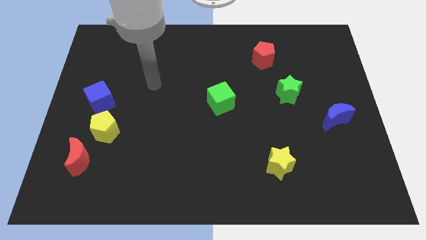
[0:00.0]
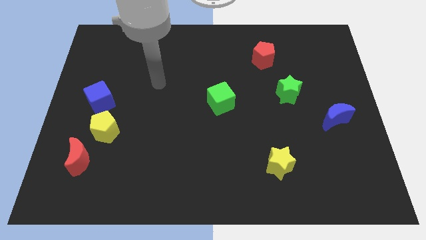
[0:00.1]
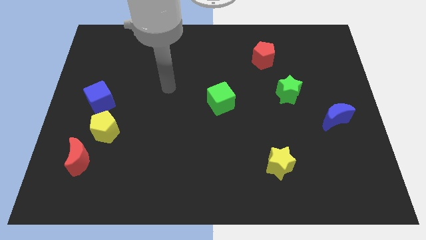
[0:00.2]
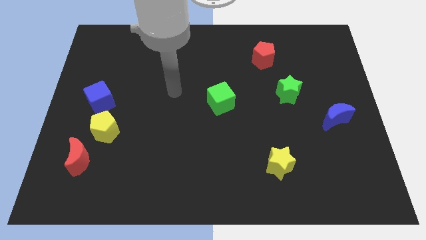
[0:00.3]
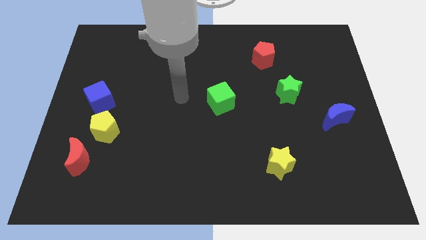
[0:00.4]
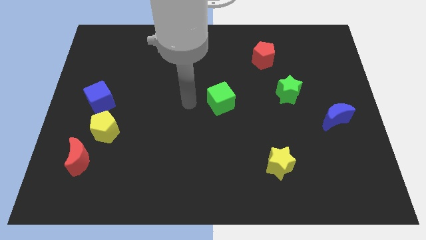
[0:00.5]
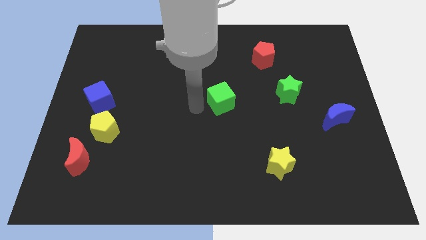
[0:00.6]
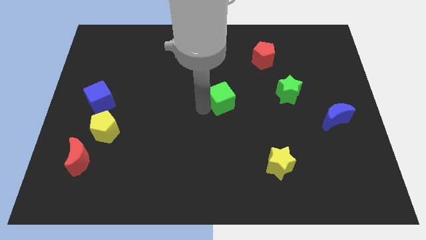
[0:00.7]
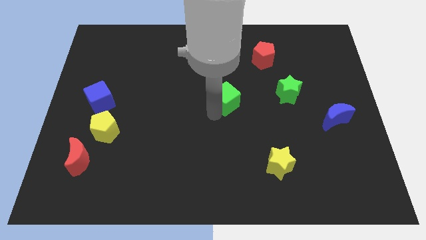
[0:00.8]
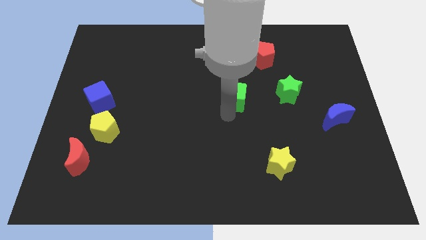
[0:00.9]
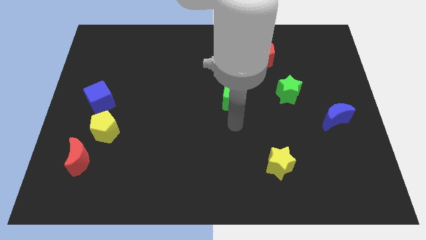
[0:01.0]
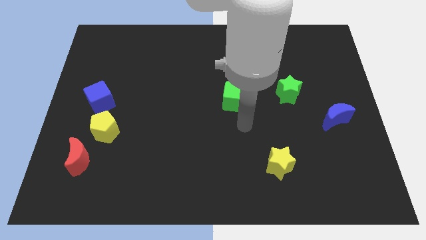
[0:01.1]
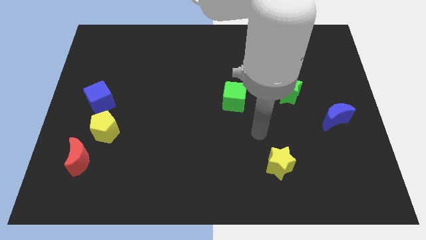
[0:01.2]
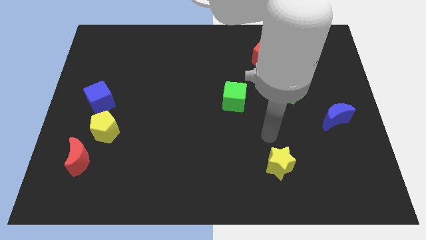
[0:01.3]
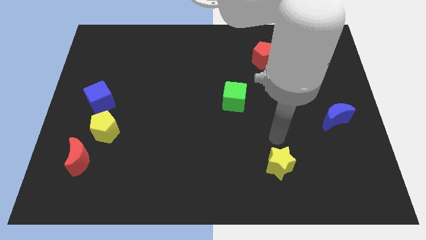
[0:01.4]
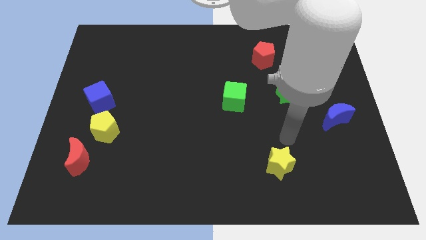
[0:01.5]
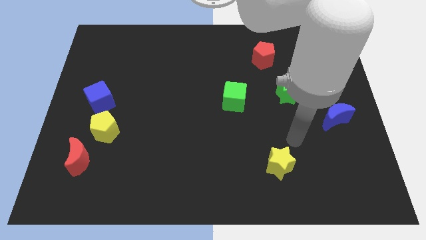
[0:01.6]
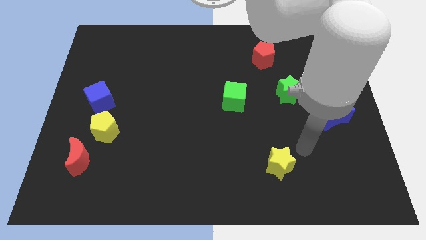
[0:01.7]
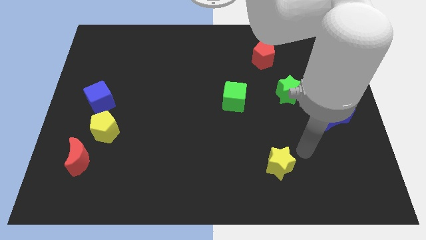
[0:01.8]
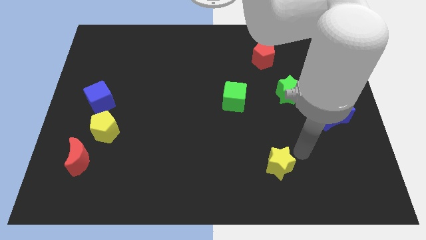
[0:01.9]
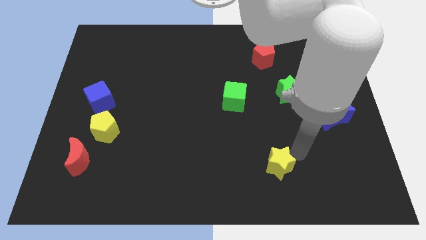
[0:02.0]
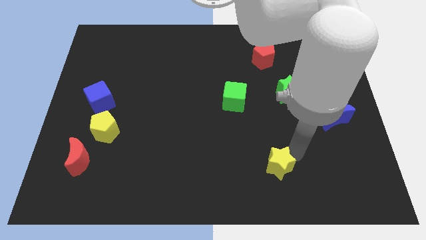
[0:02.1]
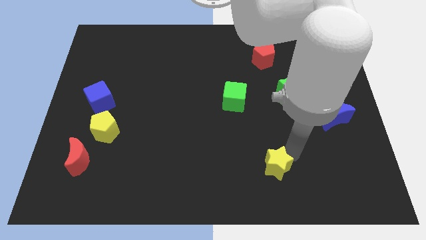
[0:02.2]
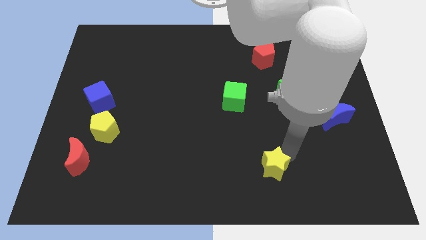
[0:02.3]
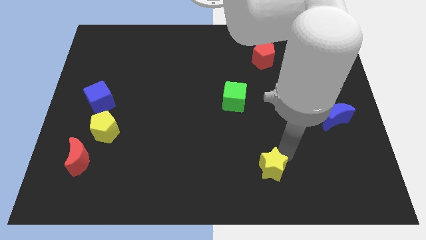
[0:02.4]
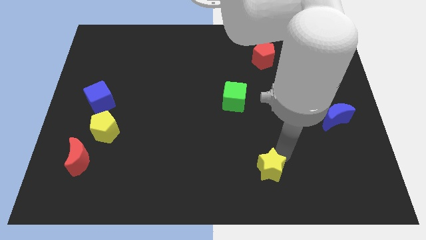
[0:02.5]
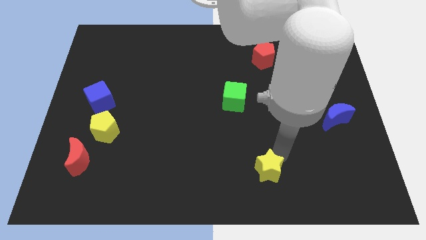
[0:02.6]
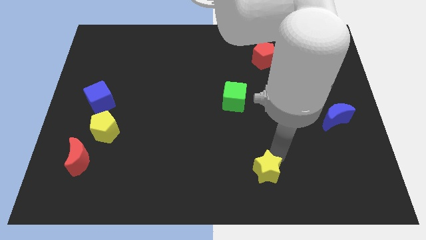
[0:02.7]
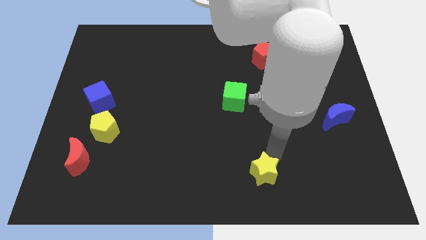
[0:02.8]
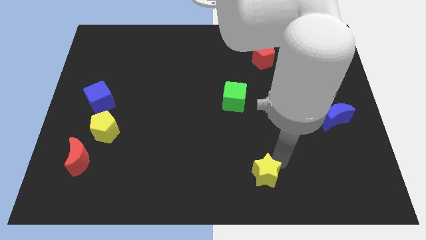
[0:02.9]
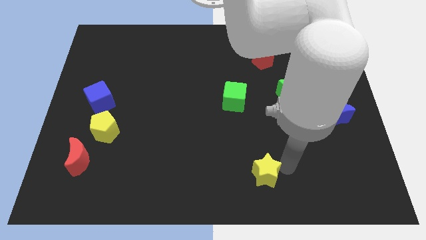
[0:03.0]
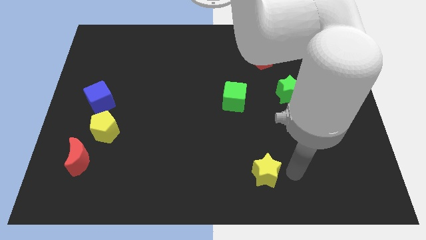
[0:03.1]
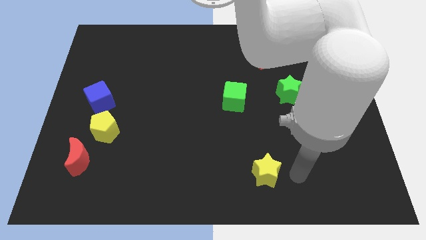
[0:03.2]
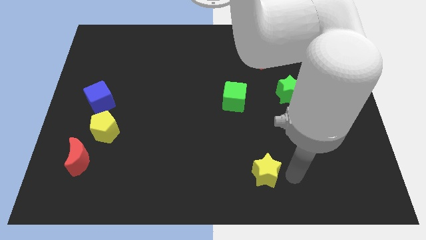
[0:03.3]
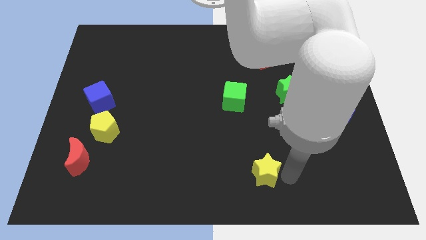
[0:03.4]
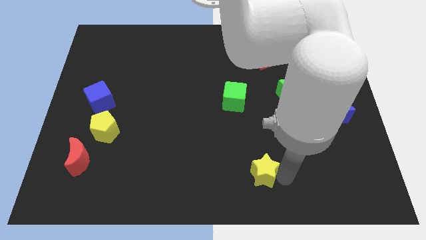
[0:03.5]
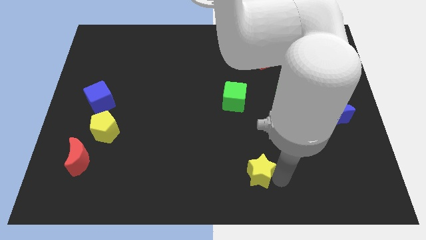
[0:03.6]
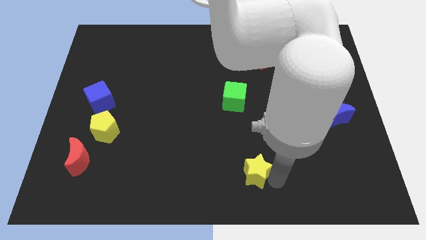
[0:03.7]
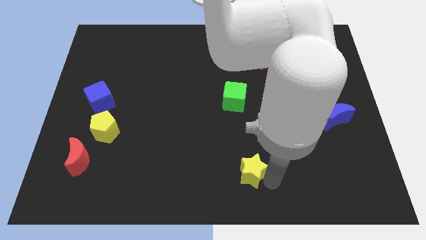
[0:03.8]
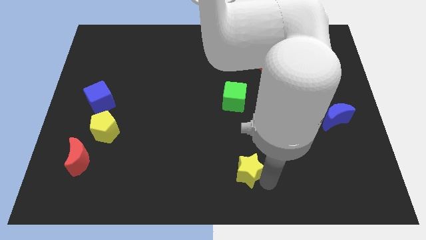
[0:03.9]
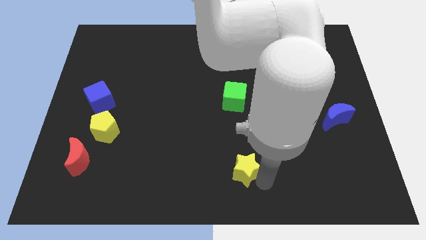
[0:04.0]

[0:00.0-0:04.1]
move the yellow star left somewhat

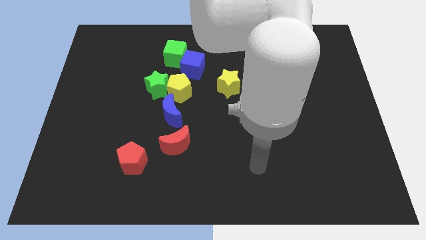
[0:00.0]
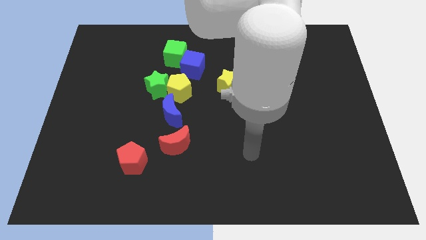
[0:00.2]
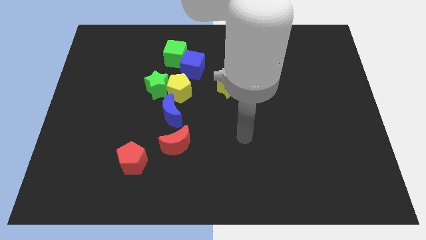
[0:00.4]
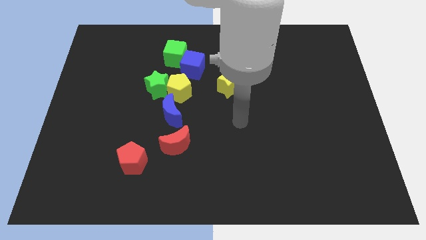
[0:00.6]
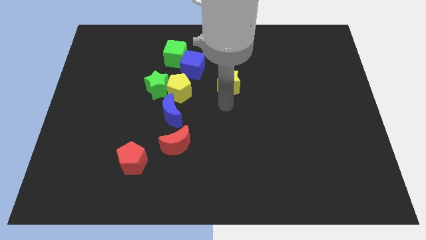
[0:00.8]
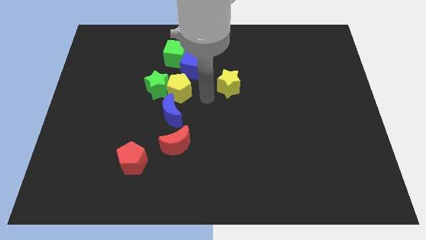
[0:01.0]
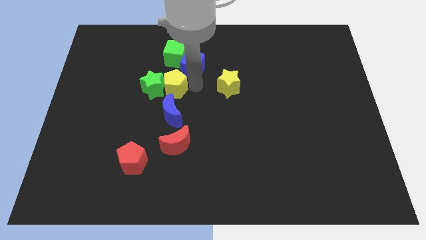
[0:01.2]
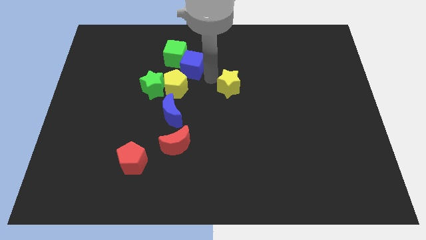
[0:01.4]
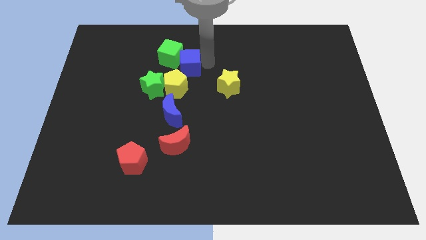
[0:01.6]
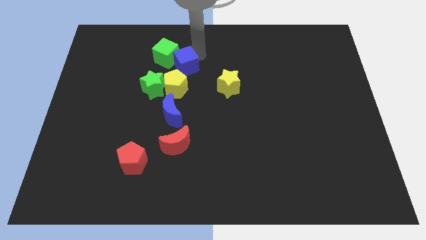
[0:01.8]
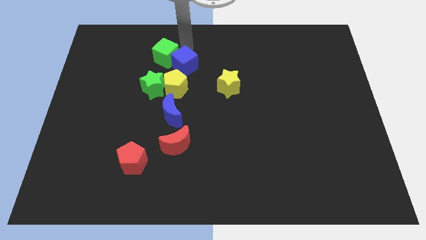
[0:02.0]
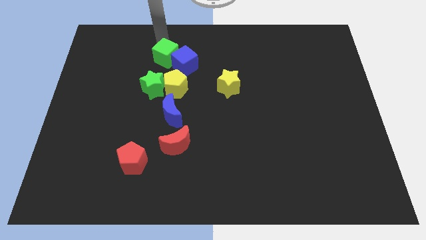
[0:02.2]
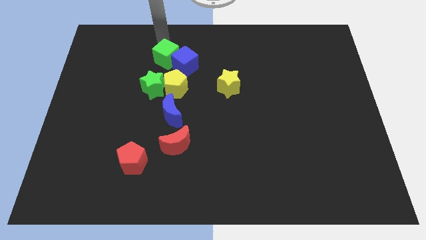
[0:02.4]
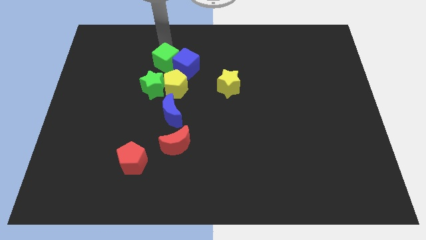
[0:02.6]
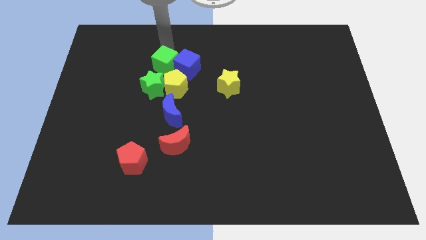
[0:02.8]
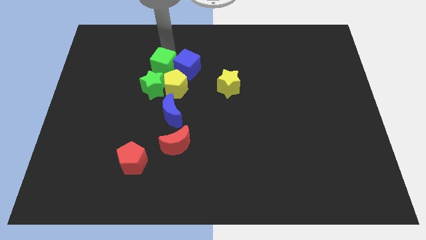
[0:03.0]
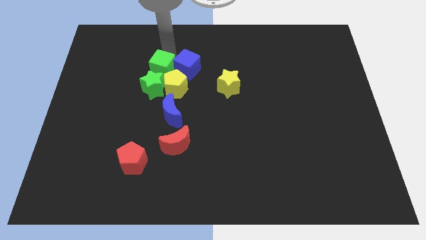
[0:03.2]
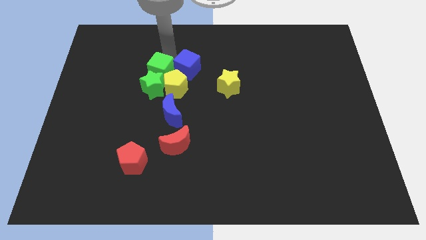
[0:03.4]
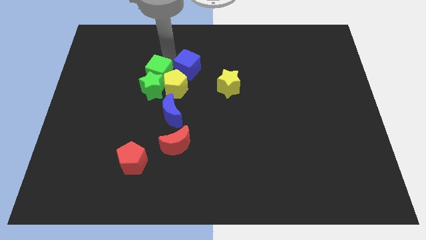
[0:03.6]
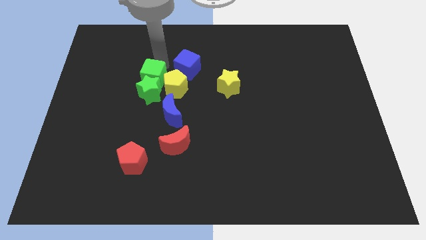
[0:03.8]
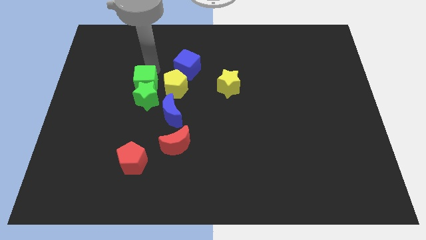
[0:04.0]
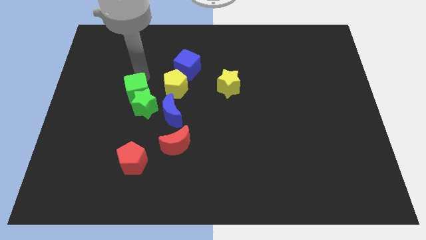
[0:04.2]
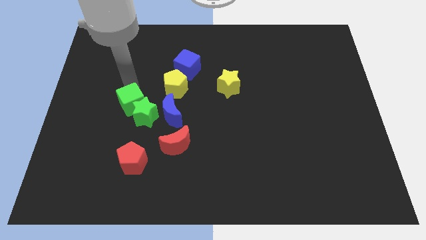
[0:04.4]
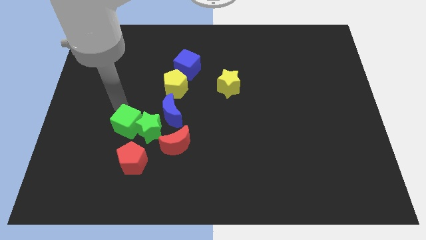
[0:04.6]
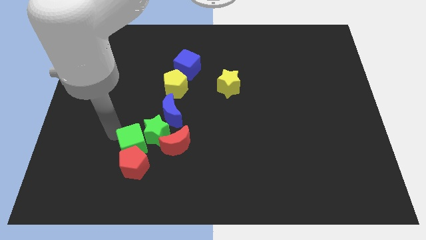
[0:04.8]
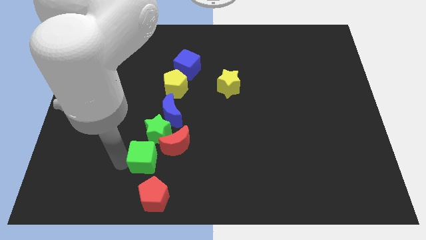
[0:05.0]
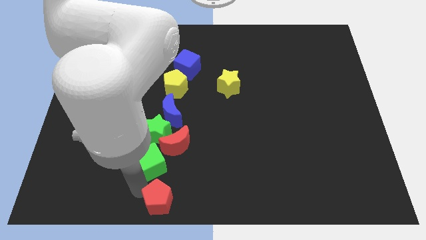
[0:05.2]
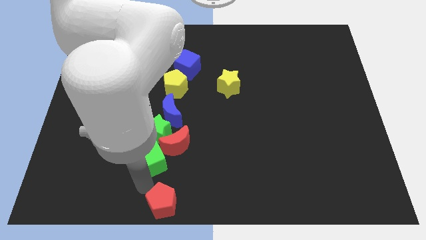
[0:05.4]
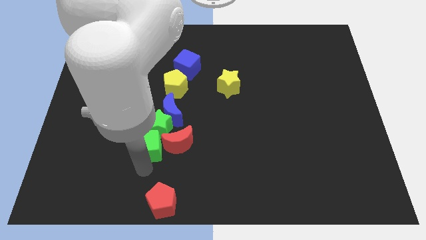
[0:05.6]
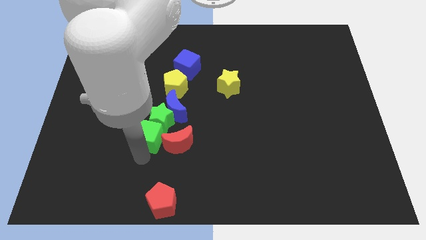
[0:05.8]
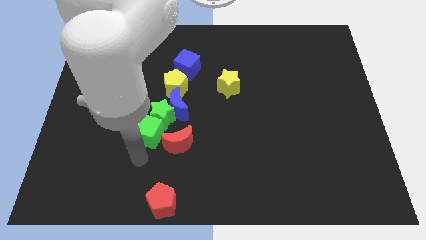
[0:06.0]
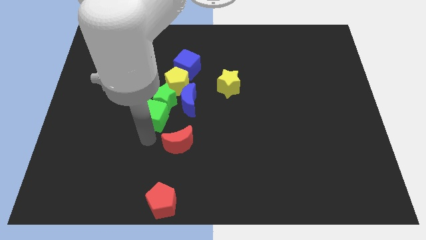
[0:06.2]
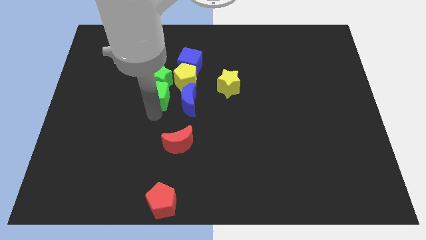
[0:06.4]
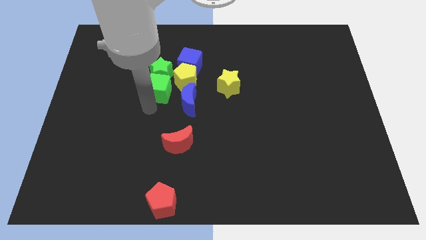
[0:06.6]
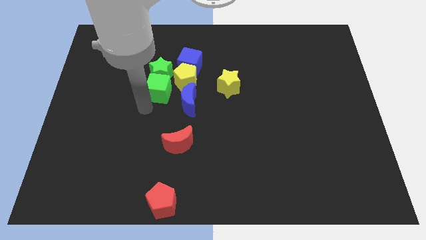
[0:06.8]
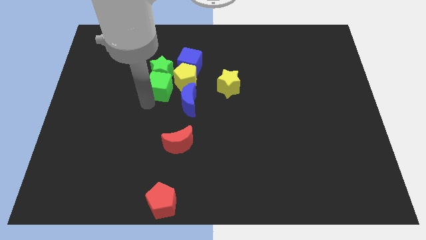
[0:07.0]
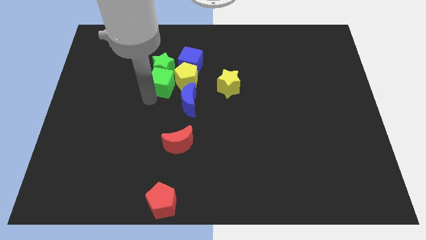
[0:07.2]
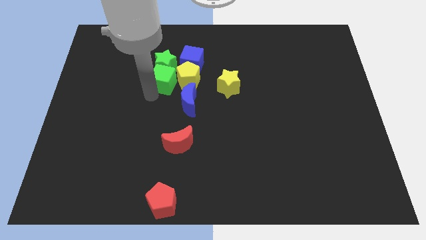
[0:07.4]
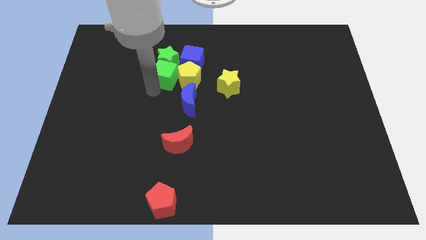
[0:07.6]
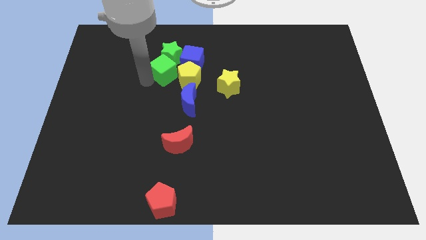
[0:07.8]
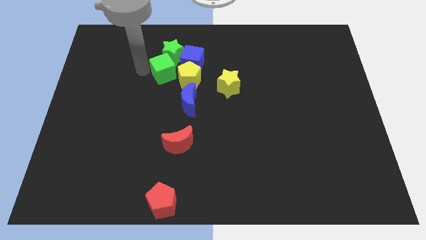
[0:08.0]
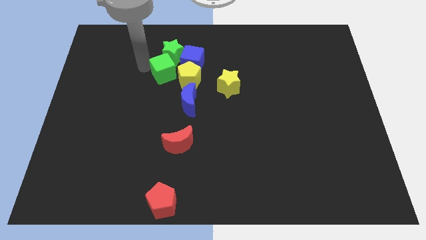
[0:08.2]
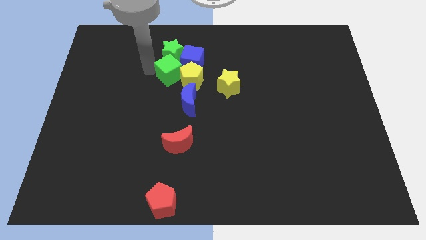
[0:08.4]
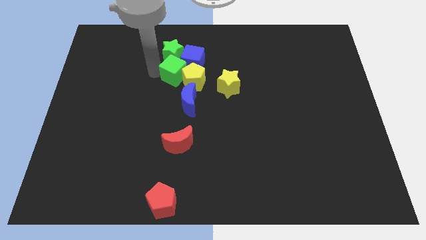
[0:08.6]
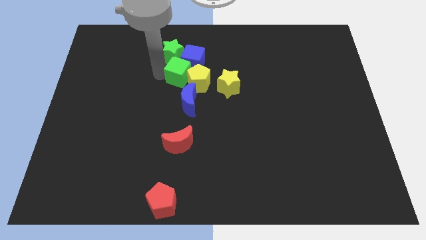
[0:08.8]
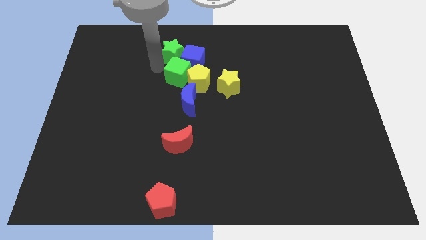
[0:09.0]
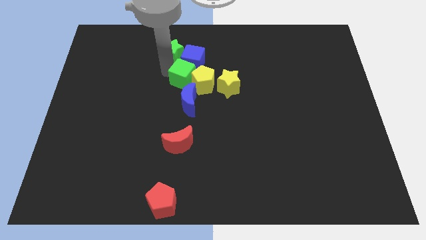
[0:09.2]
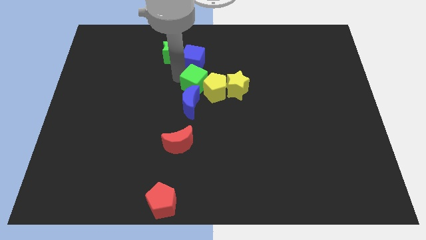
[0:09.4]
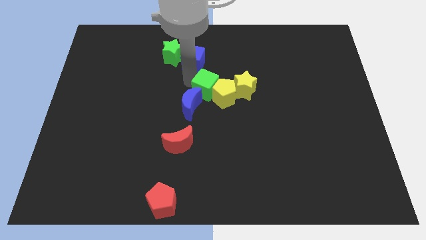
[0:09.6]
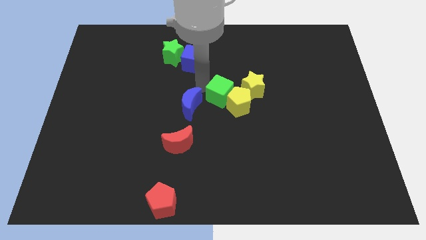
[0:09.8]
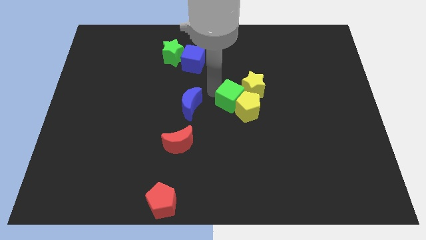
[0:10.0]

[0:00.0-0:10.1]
slide the green cube downwards and then to the right
